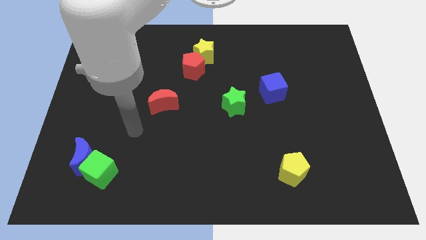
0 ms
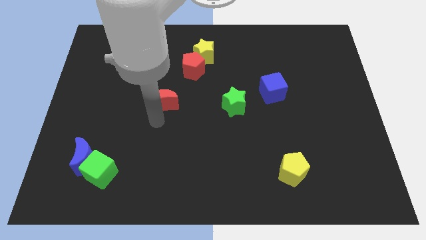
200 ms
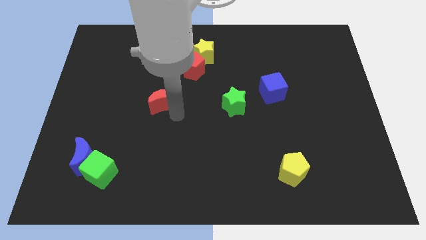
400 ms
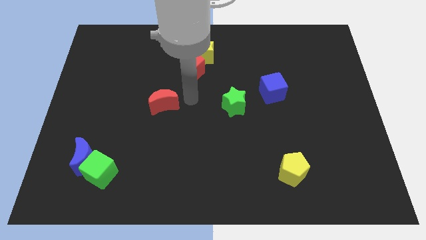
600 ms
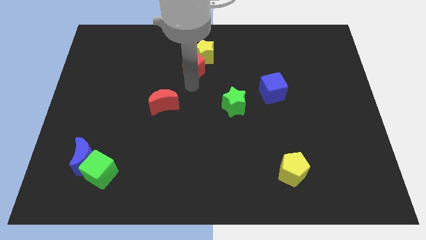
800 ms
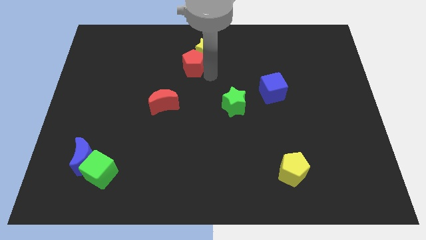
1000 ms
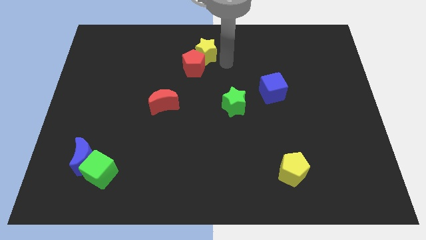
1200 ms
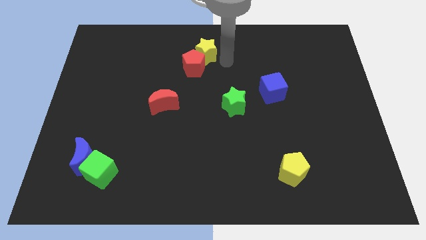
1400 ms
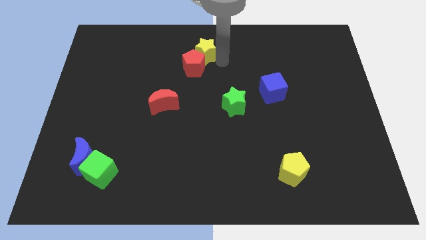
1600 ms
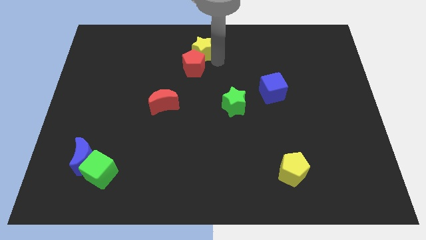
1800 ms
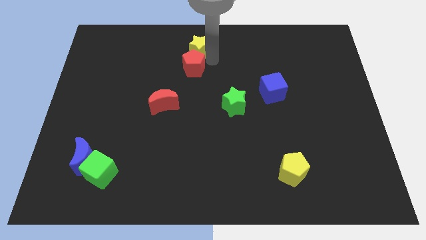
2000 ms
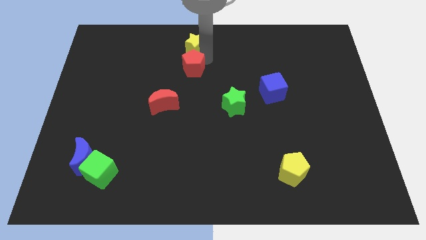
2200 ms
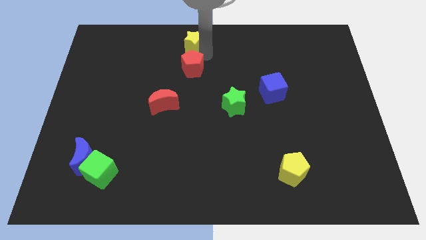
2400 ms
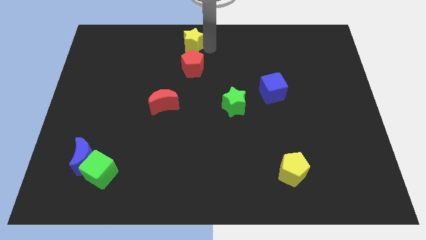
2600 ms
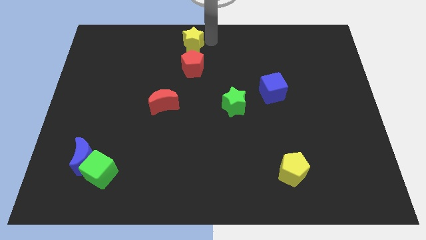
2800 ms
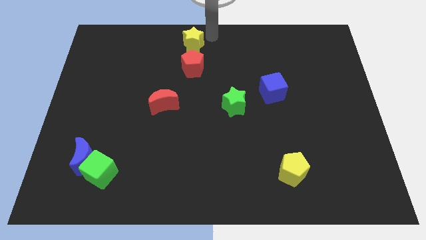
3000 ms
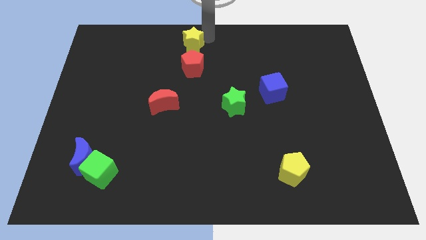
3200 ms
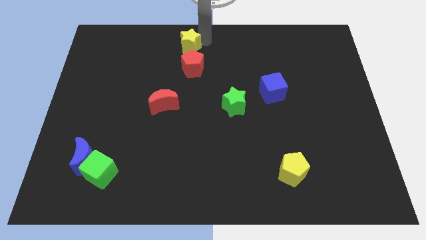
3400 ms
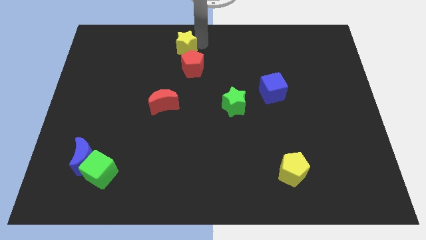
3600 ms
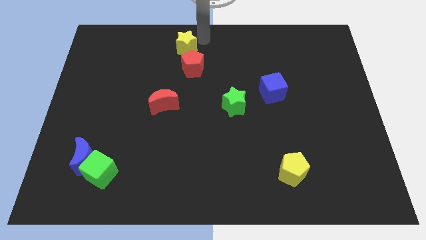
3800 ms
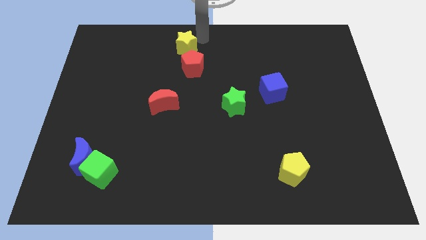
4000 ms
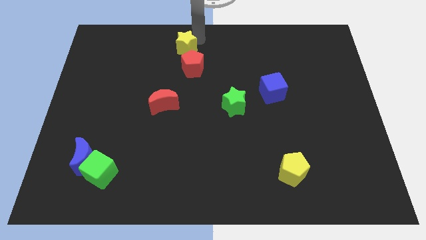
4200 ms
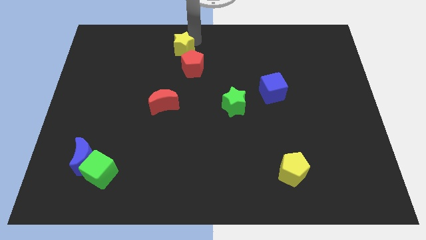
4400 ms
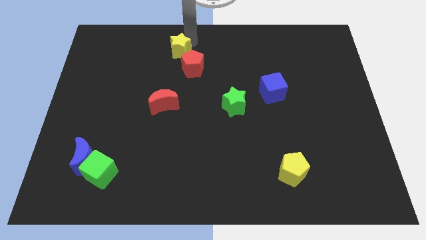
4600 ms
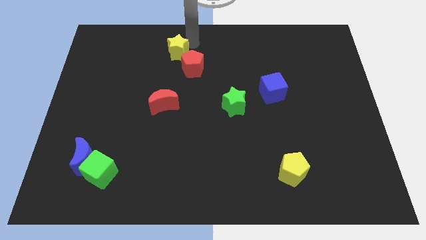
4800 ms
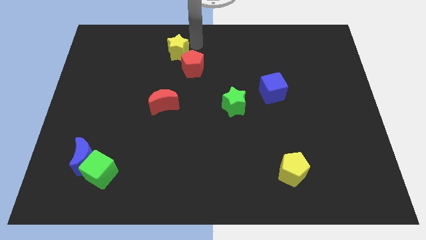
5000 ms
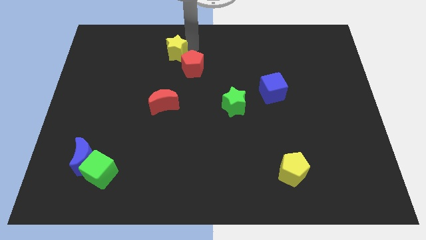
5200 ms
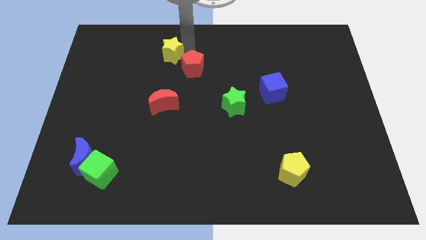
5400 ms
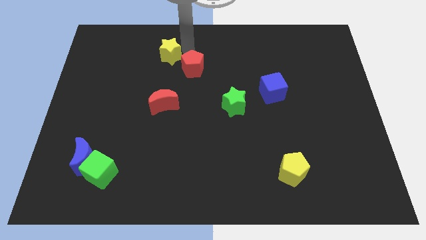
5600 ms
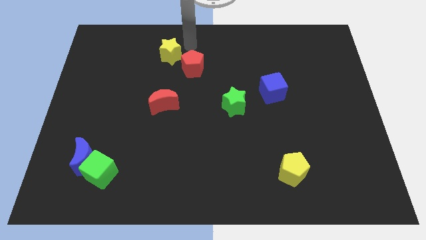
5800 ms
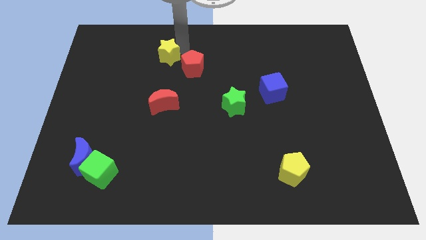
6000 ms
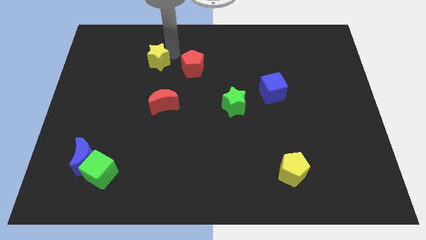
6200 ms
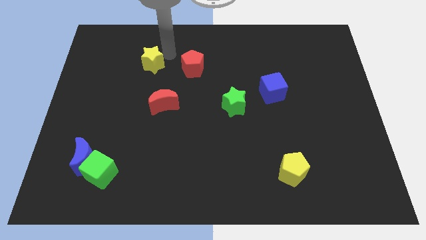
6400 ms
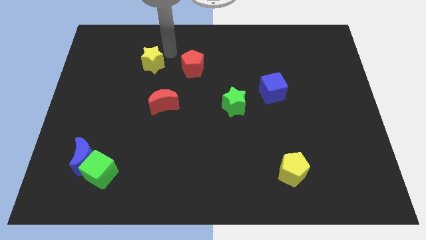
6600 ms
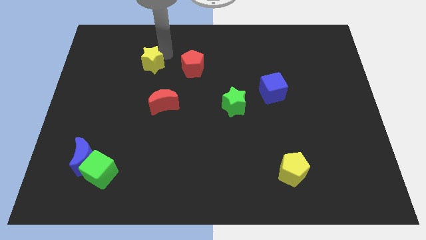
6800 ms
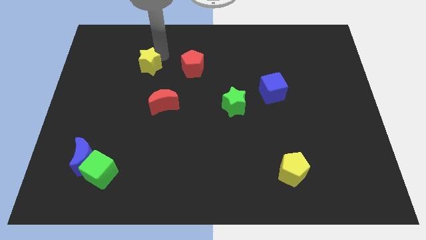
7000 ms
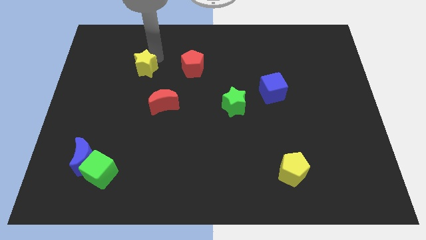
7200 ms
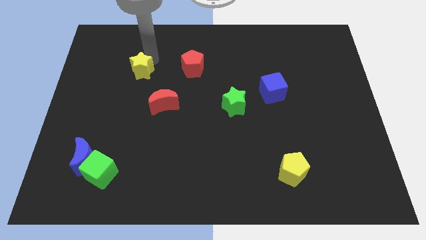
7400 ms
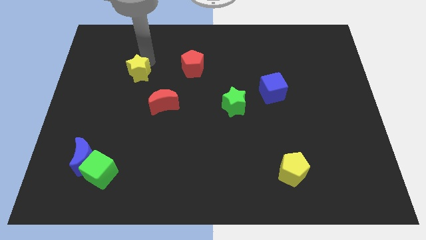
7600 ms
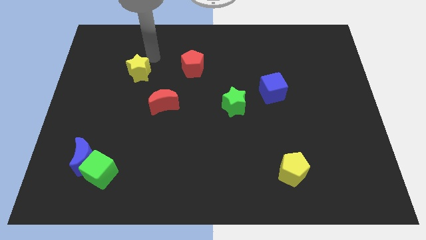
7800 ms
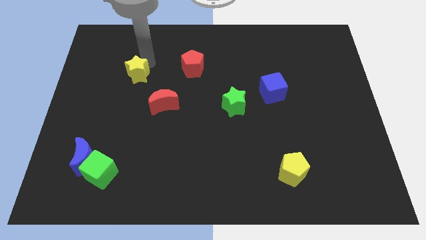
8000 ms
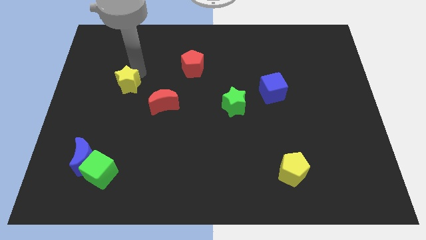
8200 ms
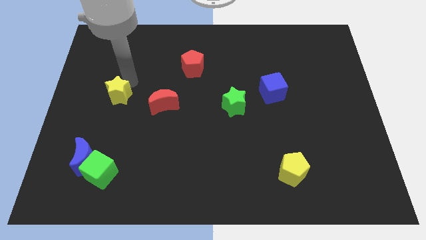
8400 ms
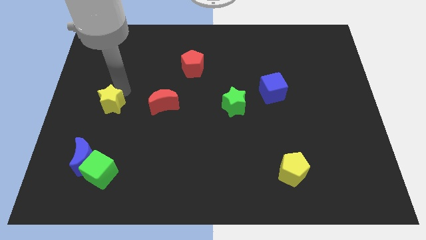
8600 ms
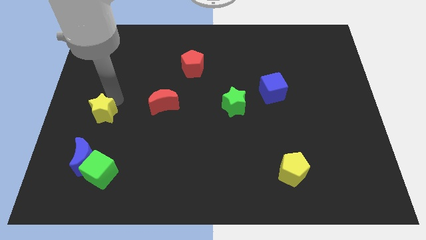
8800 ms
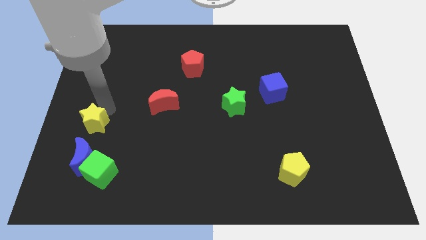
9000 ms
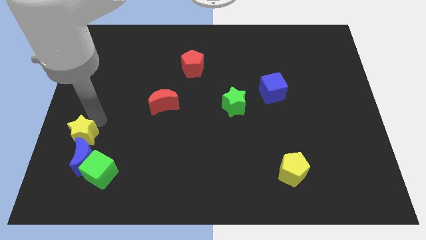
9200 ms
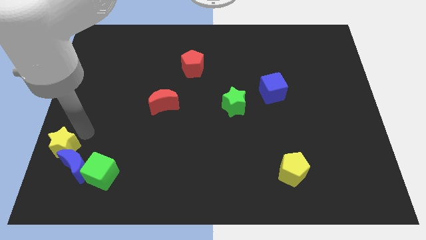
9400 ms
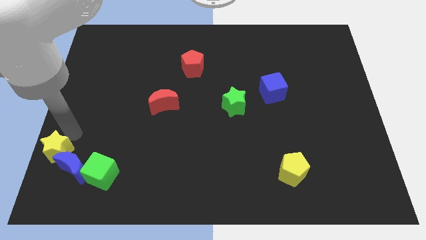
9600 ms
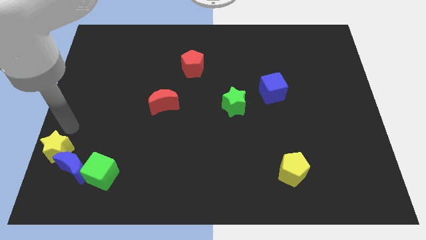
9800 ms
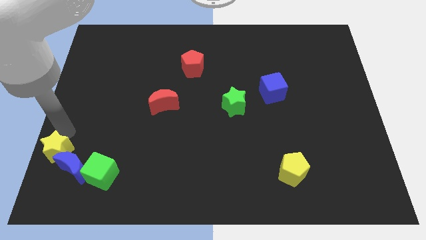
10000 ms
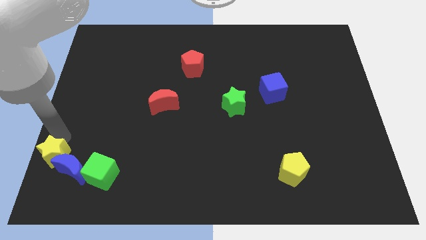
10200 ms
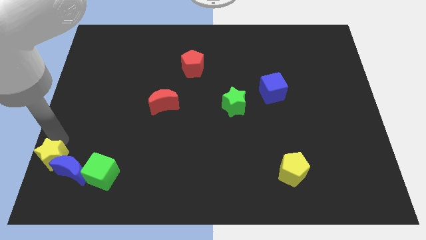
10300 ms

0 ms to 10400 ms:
slide the yellow star to the bottom left corner

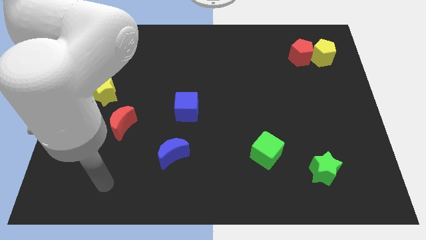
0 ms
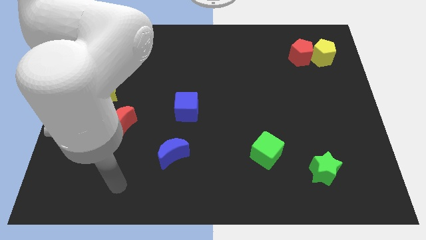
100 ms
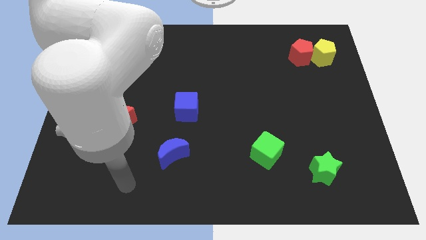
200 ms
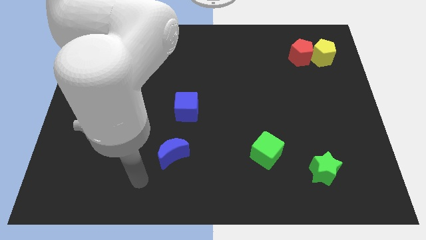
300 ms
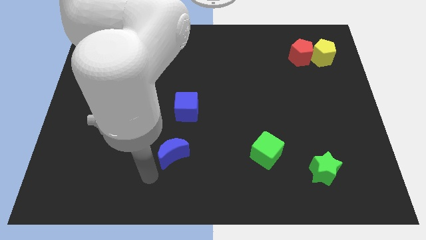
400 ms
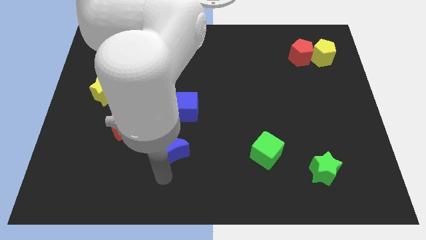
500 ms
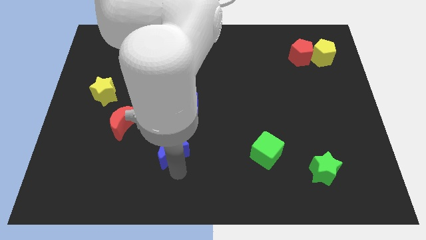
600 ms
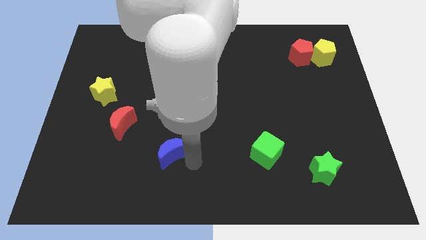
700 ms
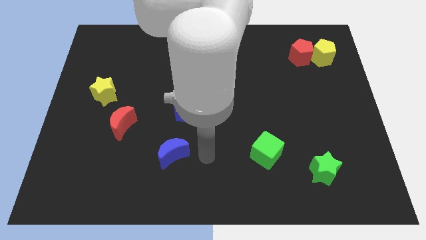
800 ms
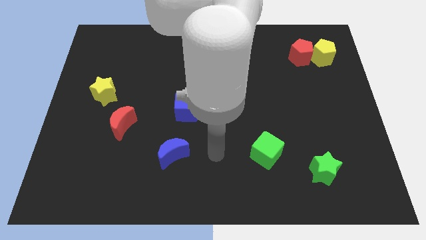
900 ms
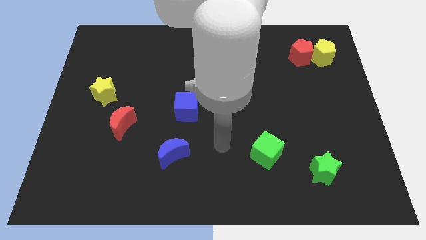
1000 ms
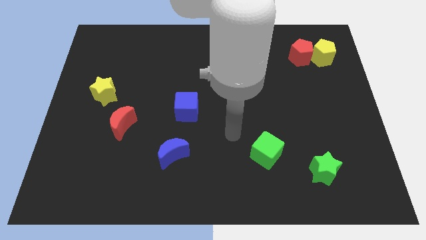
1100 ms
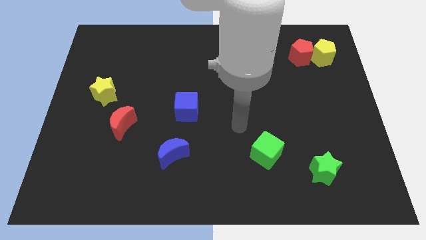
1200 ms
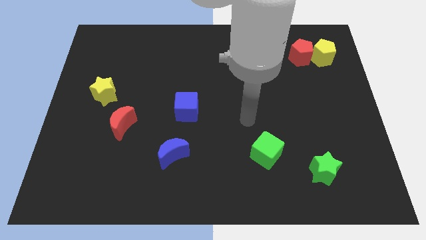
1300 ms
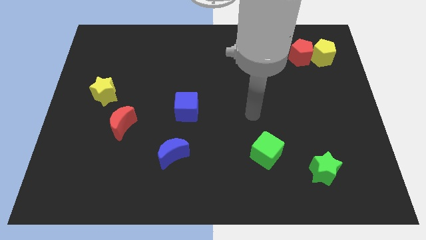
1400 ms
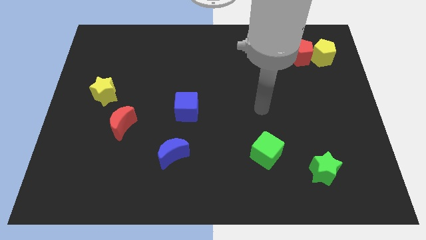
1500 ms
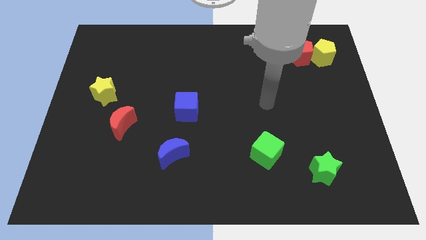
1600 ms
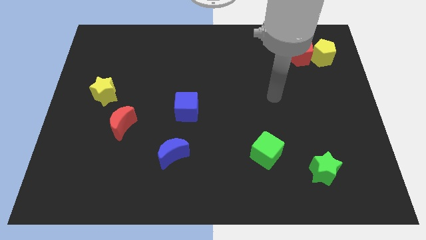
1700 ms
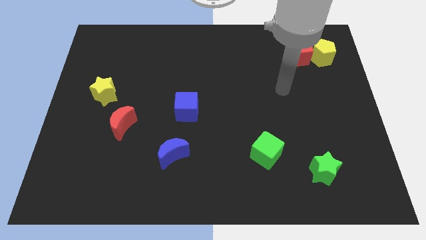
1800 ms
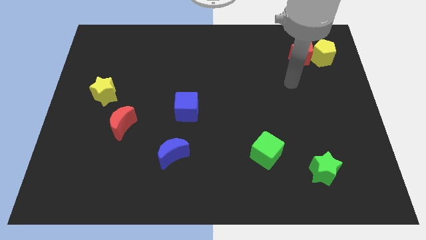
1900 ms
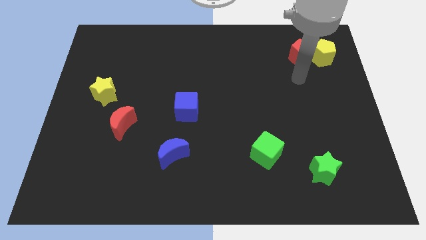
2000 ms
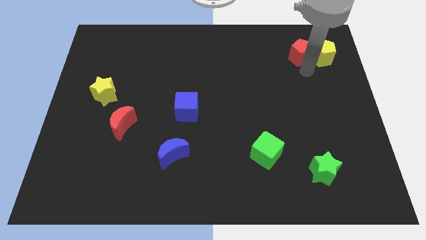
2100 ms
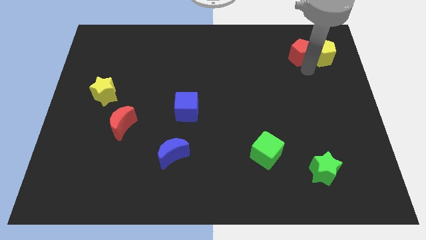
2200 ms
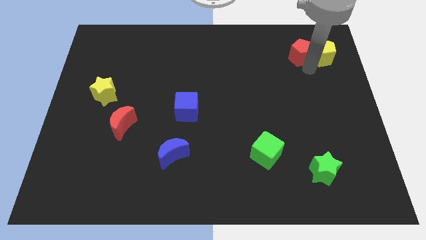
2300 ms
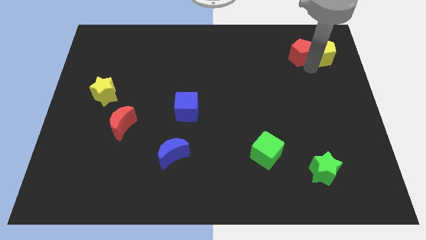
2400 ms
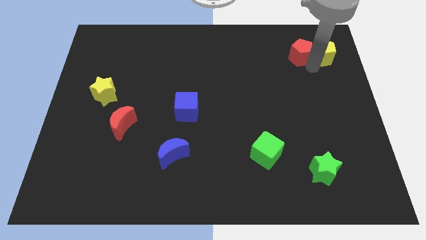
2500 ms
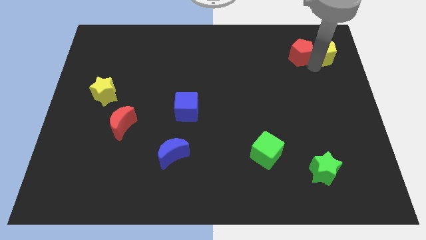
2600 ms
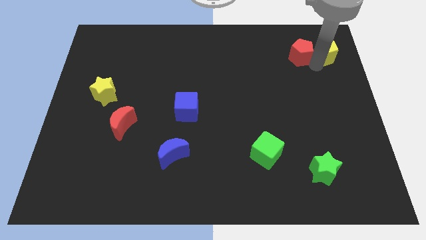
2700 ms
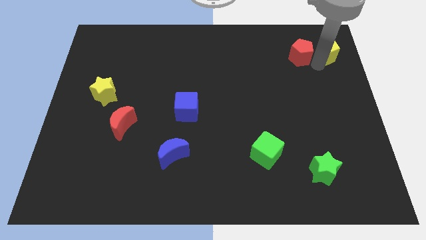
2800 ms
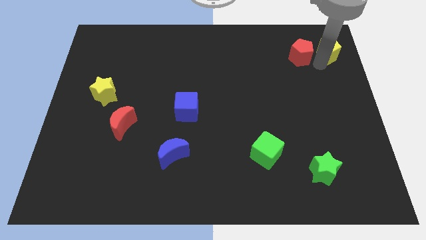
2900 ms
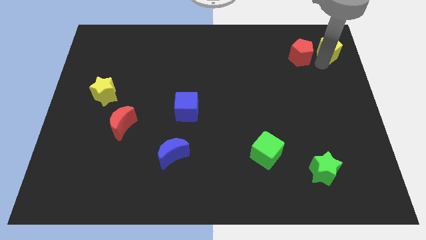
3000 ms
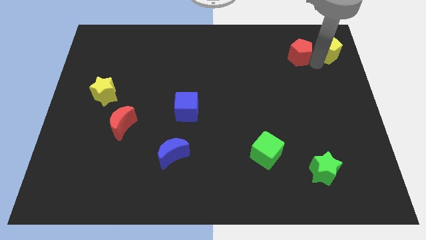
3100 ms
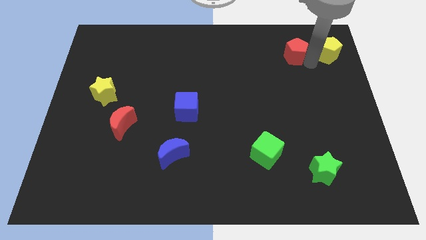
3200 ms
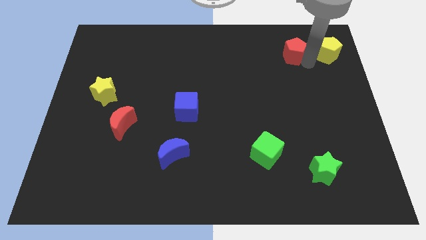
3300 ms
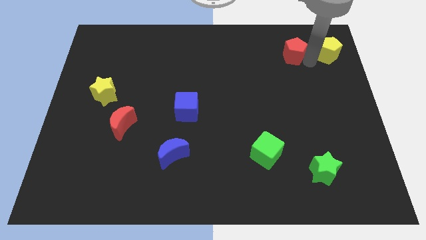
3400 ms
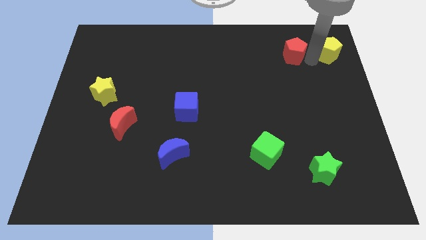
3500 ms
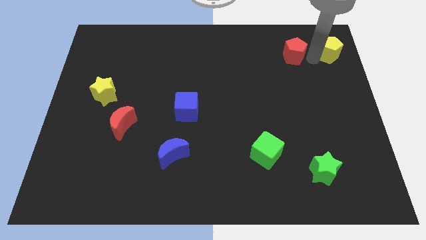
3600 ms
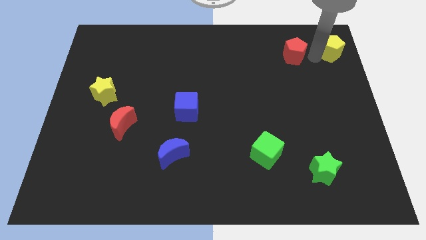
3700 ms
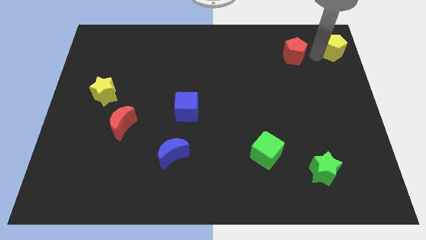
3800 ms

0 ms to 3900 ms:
push the yellow pentagon to the top right corner
